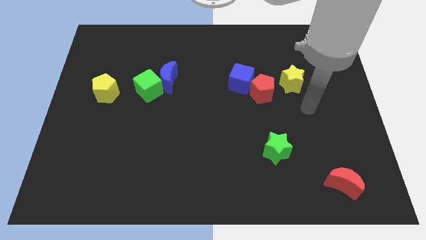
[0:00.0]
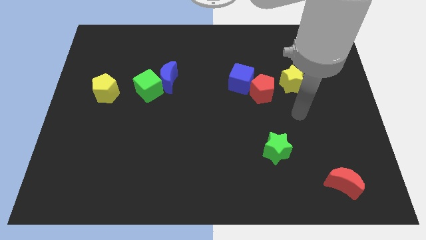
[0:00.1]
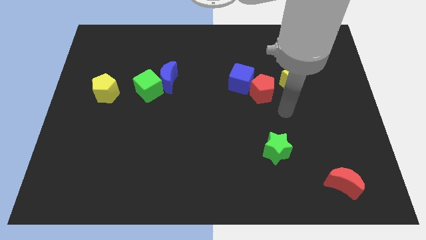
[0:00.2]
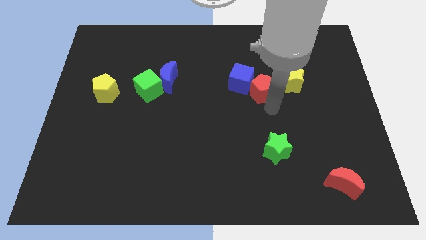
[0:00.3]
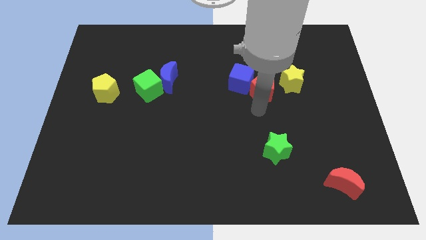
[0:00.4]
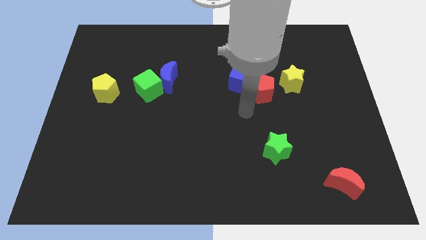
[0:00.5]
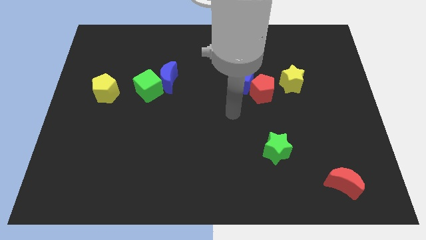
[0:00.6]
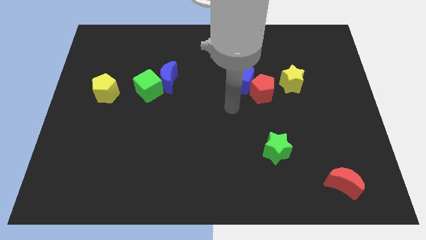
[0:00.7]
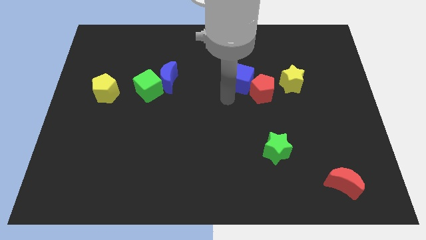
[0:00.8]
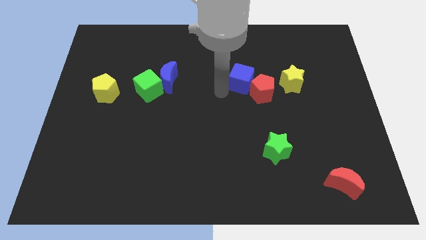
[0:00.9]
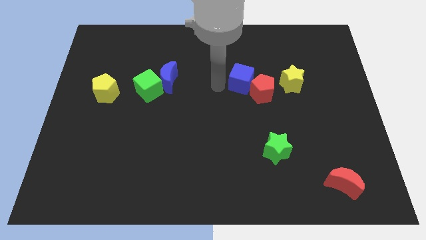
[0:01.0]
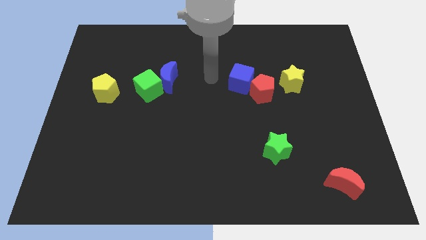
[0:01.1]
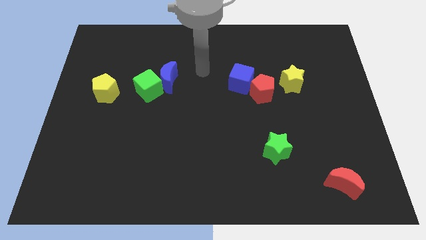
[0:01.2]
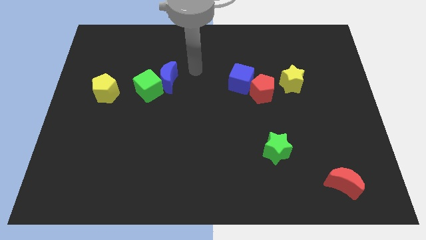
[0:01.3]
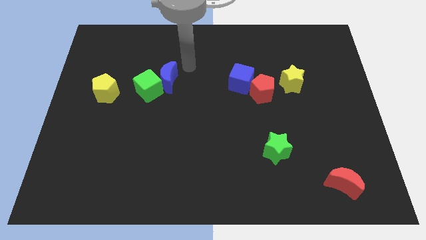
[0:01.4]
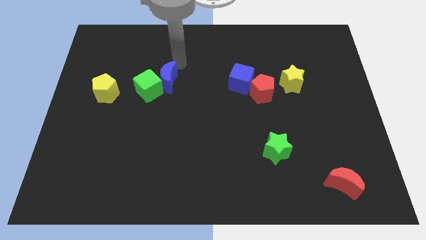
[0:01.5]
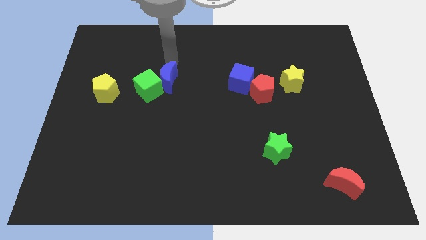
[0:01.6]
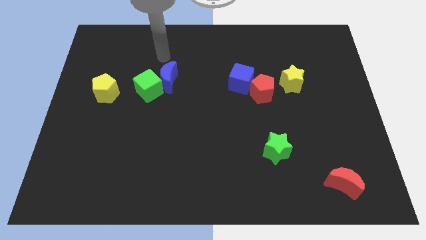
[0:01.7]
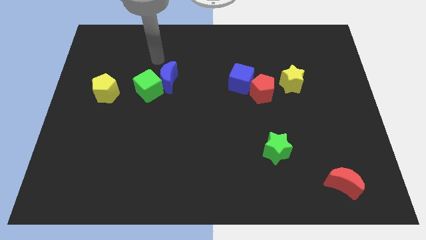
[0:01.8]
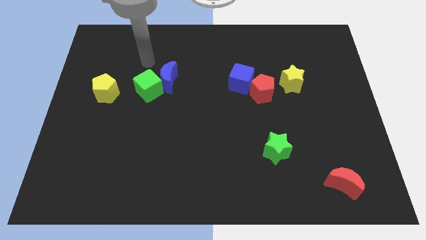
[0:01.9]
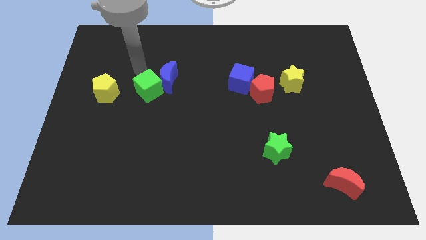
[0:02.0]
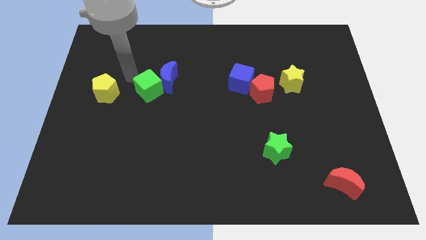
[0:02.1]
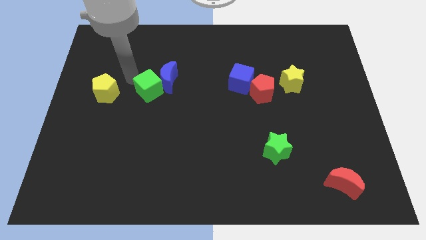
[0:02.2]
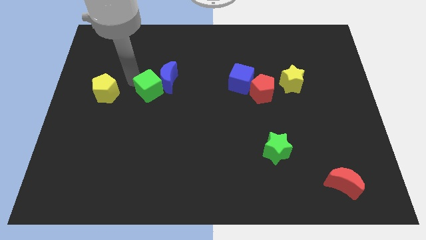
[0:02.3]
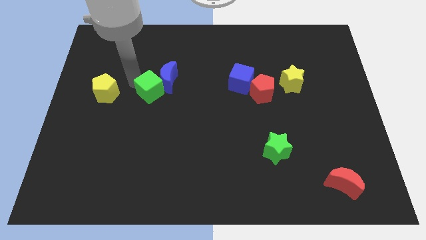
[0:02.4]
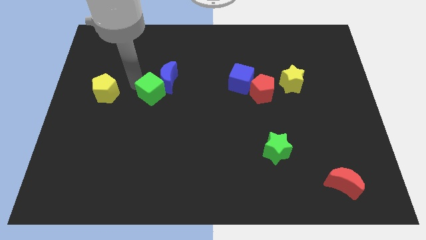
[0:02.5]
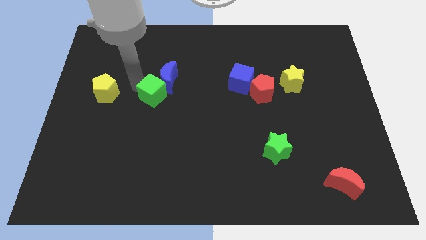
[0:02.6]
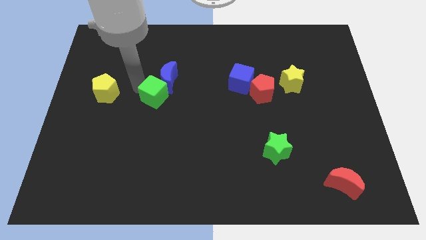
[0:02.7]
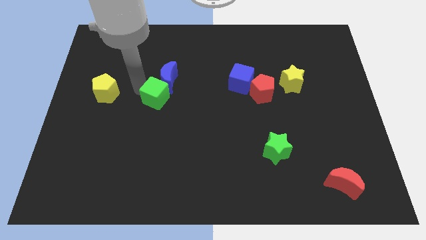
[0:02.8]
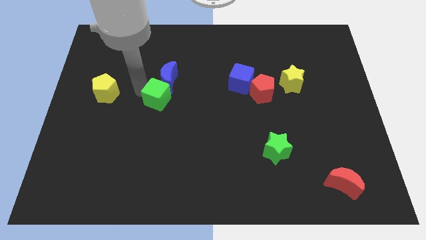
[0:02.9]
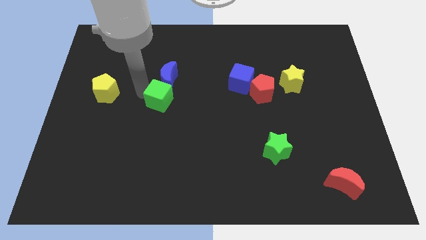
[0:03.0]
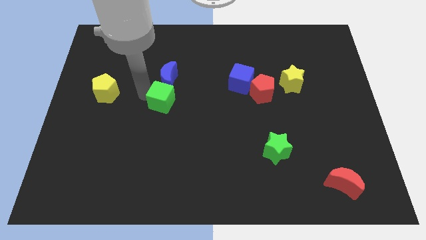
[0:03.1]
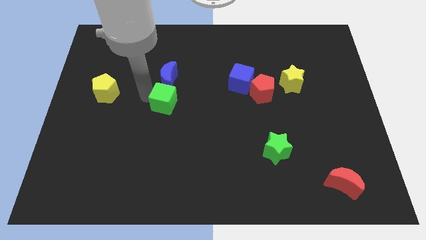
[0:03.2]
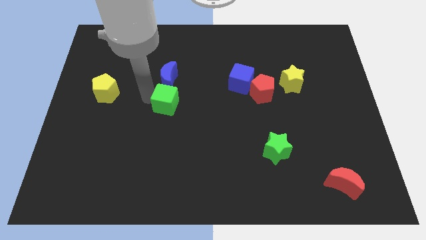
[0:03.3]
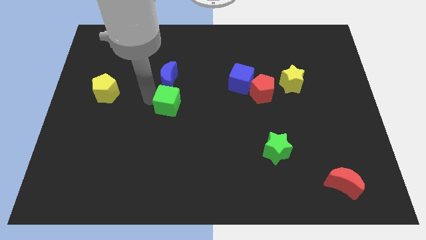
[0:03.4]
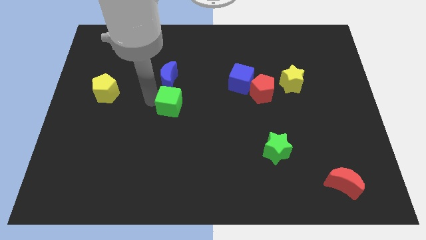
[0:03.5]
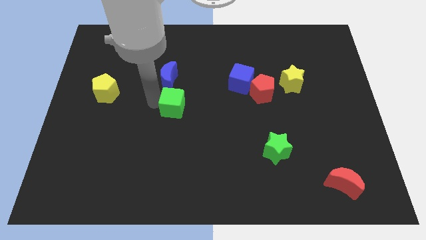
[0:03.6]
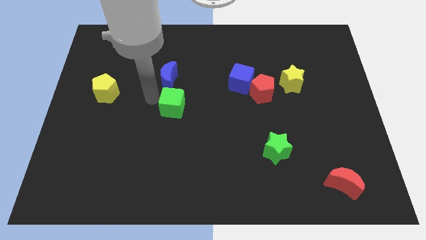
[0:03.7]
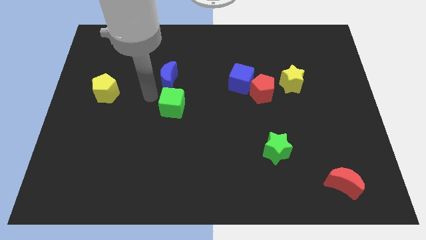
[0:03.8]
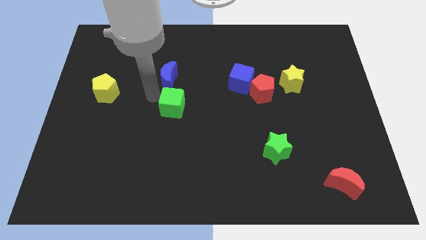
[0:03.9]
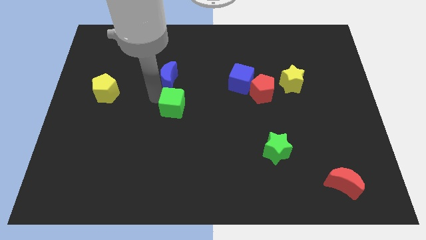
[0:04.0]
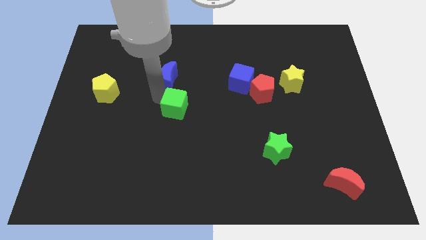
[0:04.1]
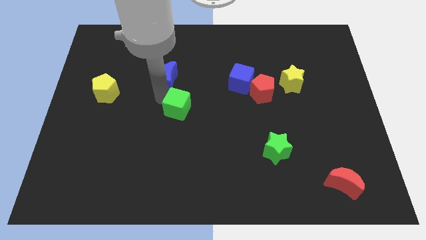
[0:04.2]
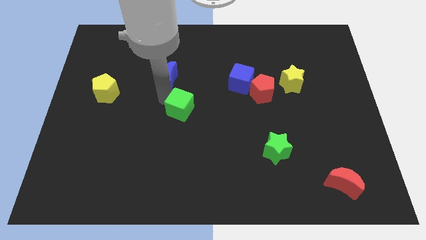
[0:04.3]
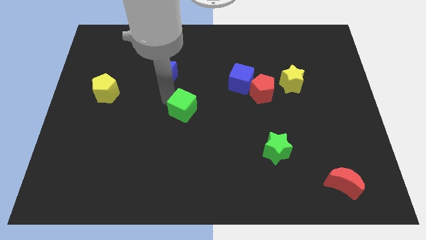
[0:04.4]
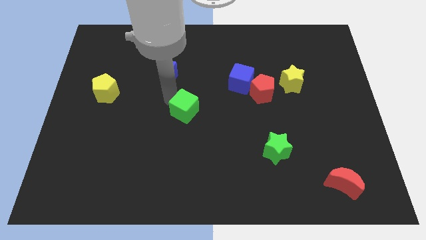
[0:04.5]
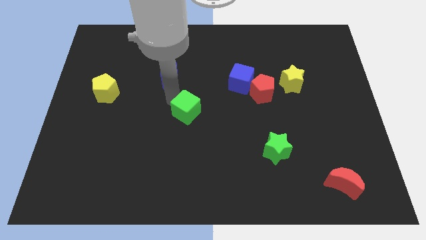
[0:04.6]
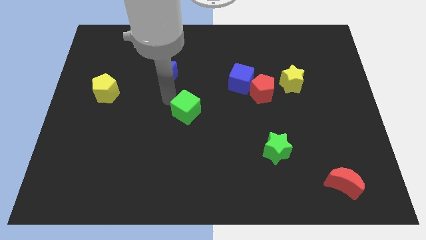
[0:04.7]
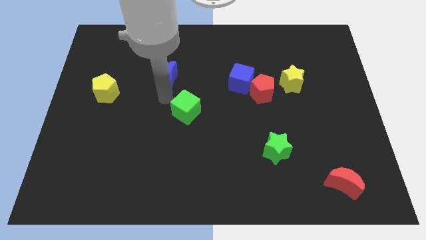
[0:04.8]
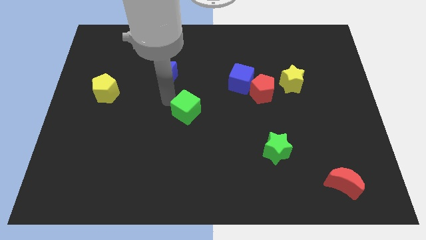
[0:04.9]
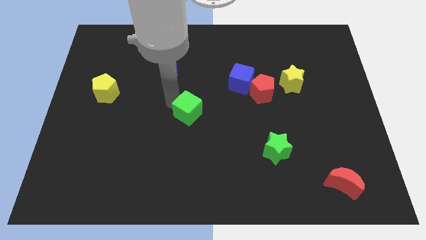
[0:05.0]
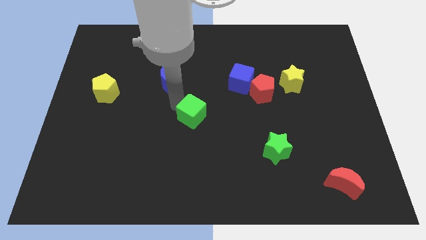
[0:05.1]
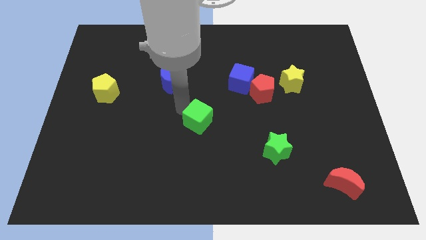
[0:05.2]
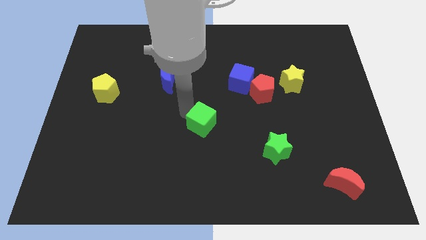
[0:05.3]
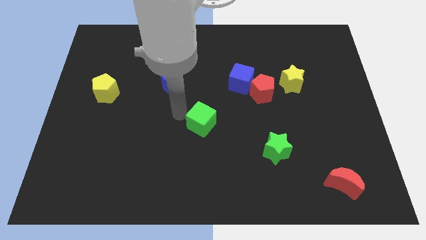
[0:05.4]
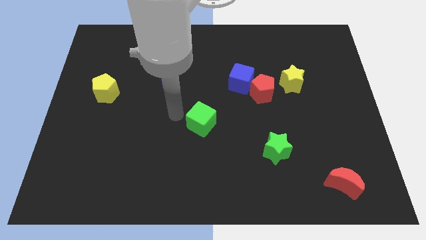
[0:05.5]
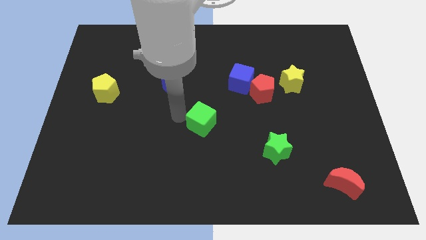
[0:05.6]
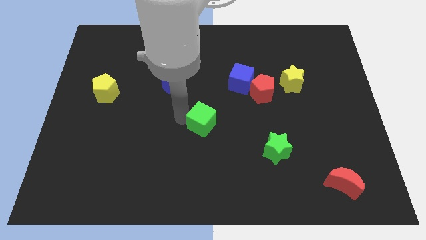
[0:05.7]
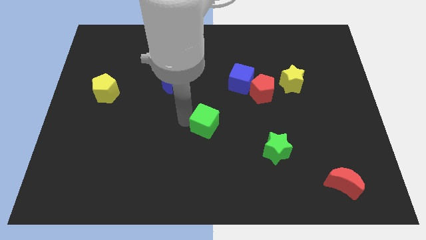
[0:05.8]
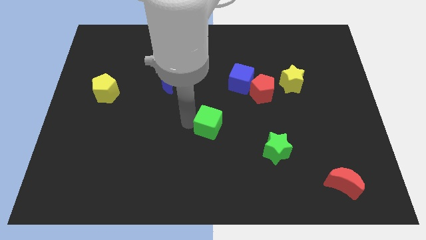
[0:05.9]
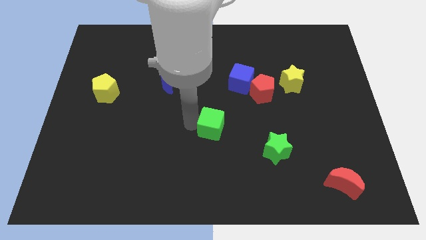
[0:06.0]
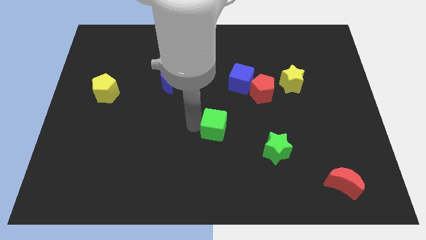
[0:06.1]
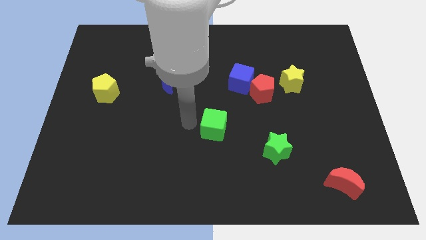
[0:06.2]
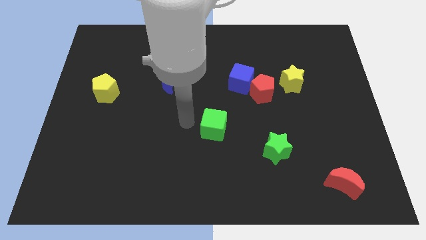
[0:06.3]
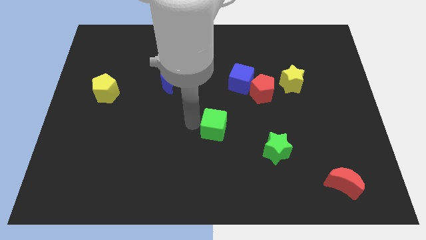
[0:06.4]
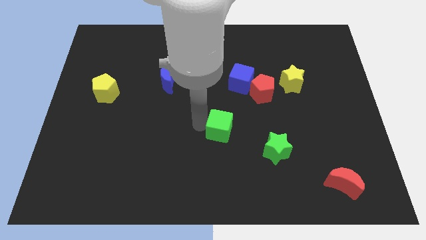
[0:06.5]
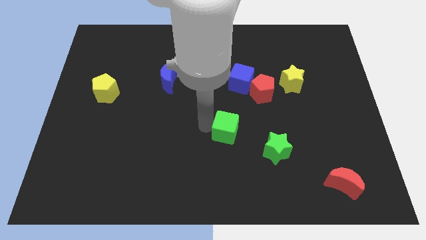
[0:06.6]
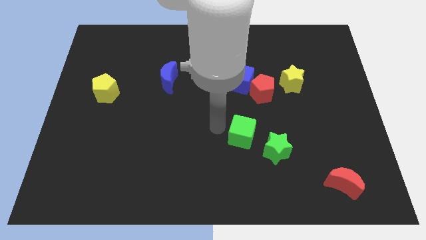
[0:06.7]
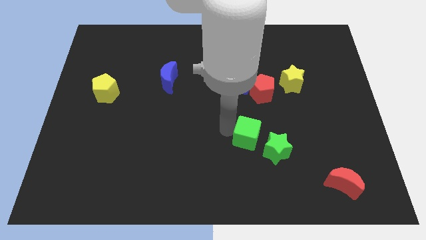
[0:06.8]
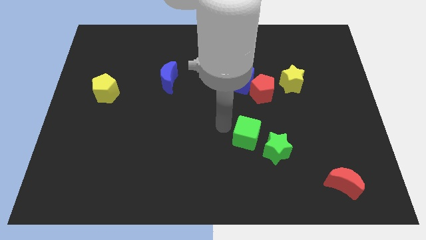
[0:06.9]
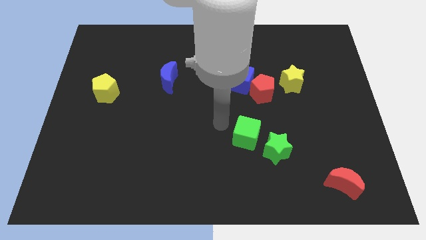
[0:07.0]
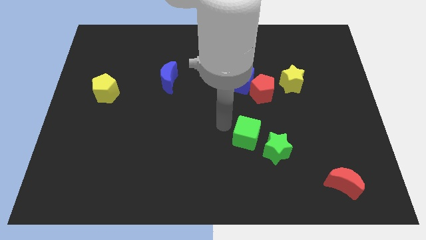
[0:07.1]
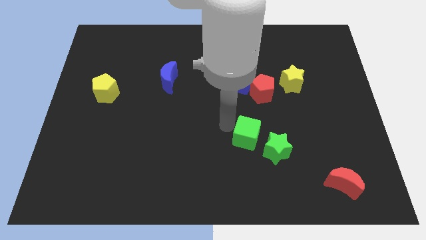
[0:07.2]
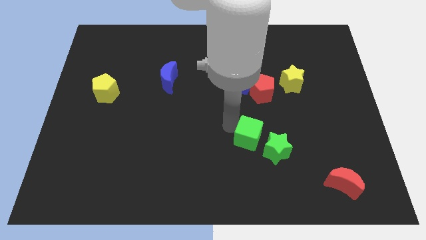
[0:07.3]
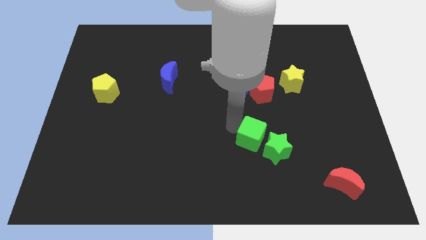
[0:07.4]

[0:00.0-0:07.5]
slide the green cube next to the green star
